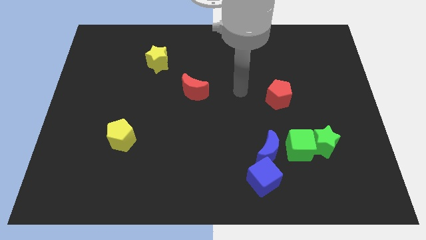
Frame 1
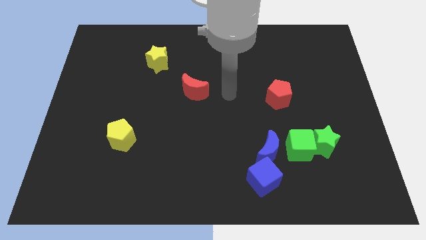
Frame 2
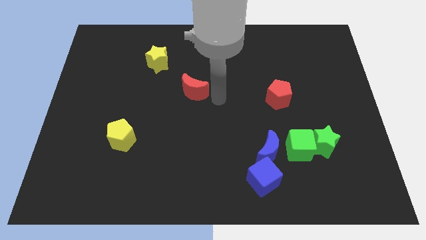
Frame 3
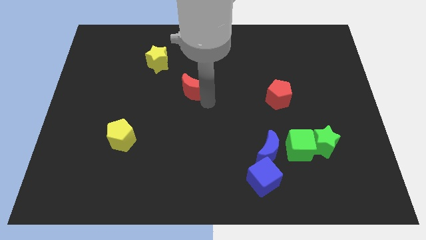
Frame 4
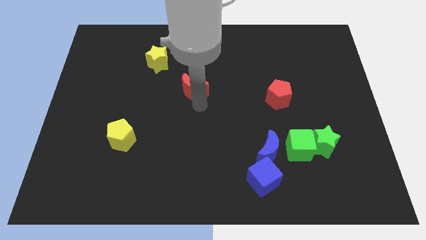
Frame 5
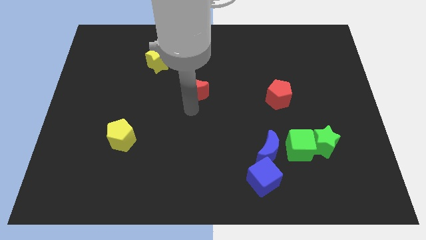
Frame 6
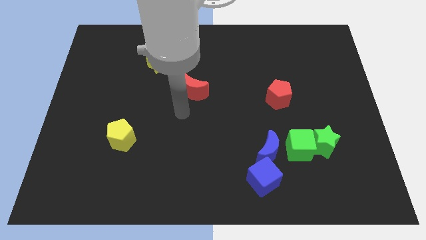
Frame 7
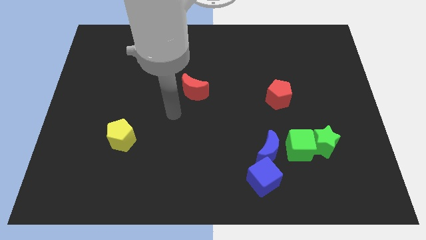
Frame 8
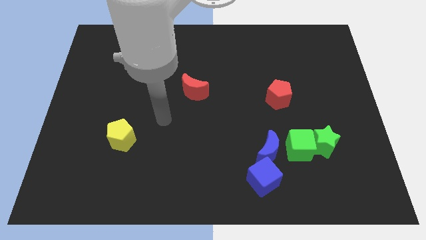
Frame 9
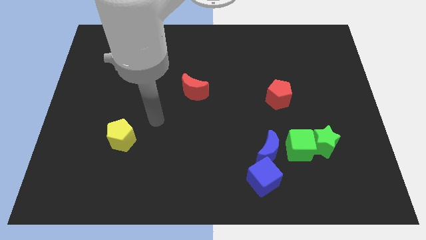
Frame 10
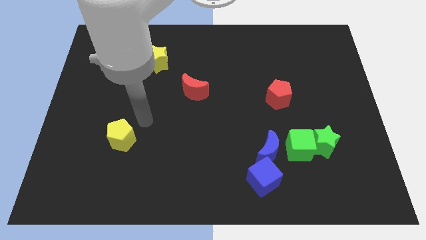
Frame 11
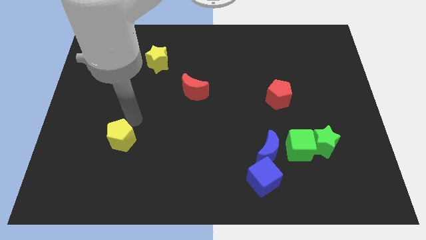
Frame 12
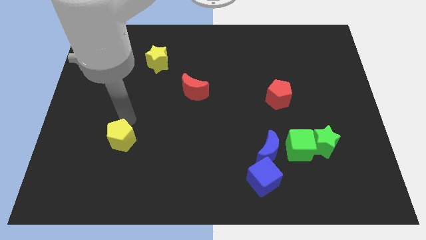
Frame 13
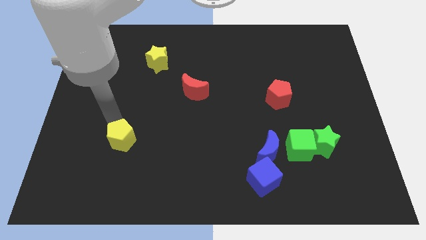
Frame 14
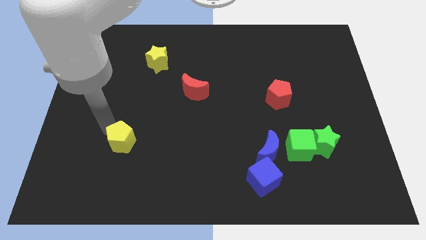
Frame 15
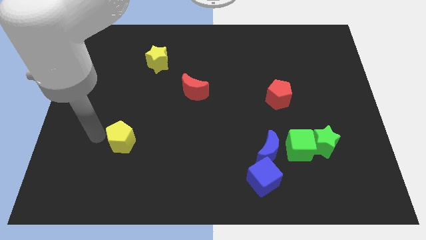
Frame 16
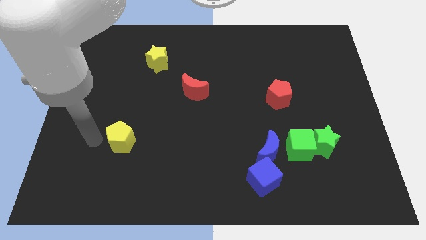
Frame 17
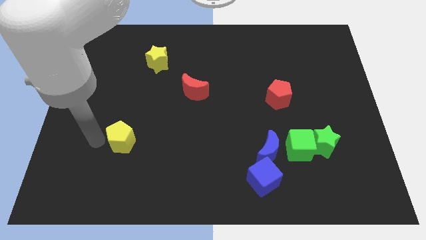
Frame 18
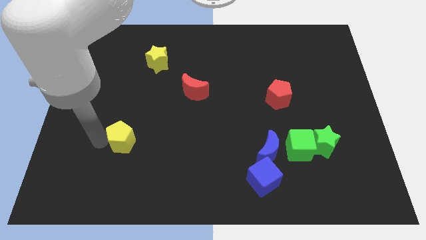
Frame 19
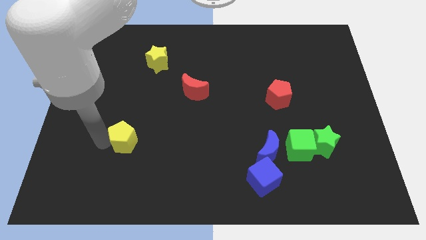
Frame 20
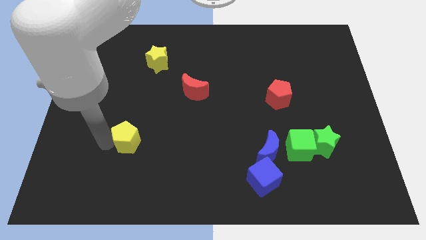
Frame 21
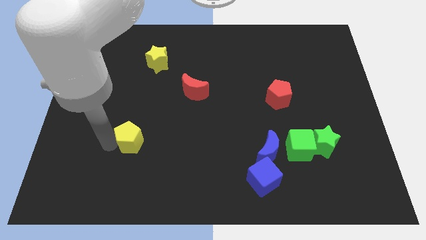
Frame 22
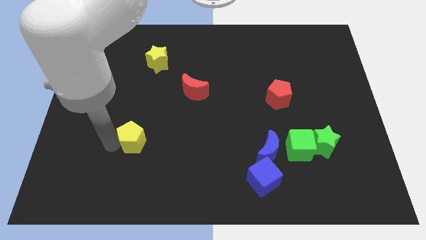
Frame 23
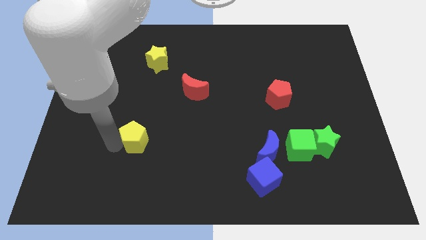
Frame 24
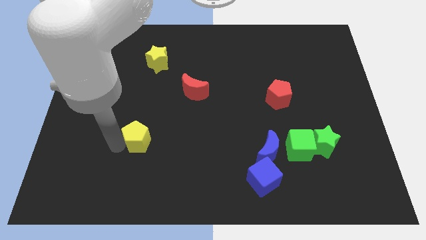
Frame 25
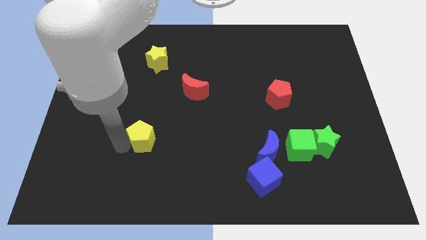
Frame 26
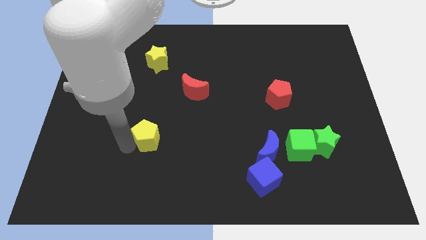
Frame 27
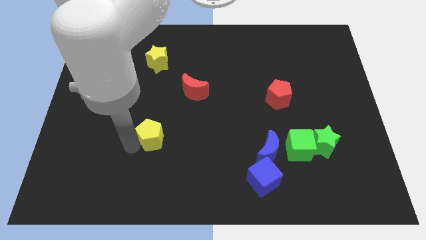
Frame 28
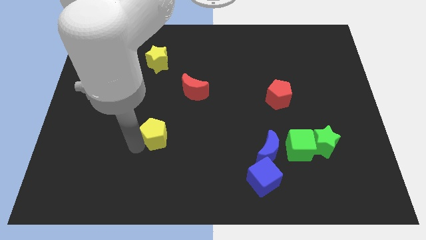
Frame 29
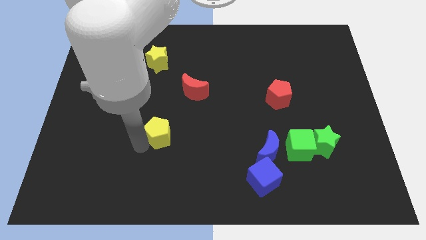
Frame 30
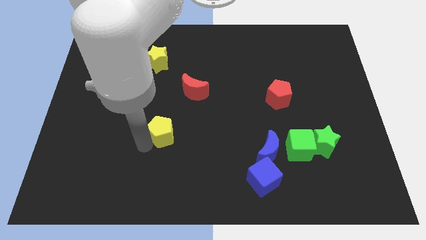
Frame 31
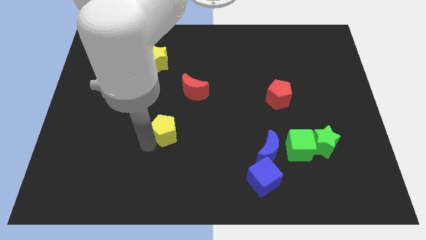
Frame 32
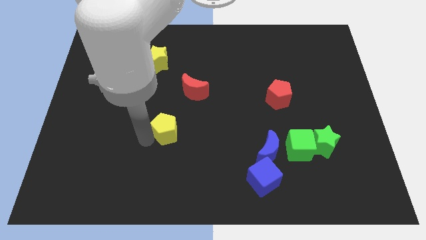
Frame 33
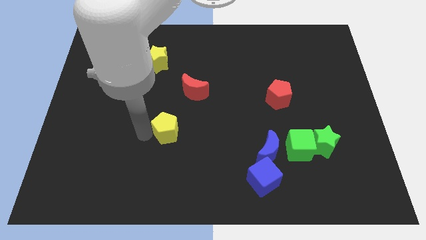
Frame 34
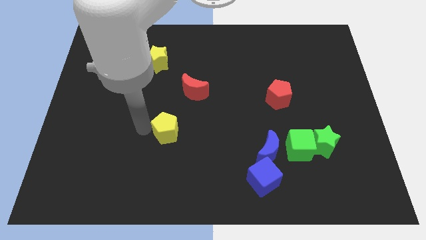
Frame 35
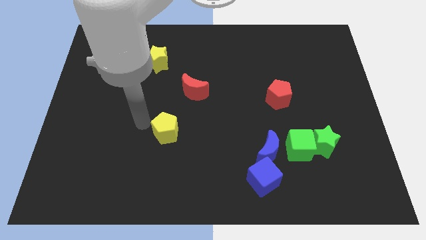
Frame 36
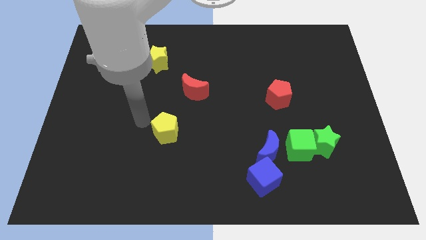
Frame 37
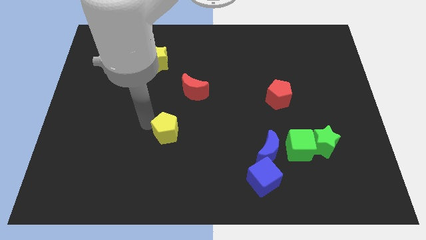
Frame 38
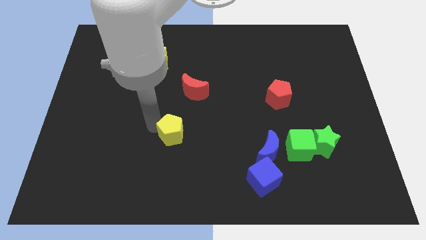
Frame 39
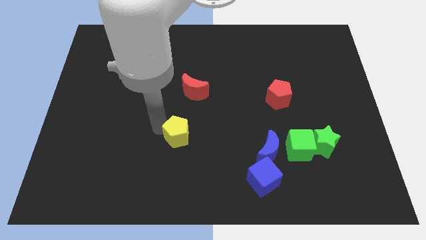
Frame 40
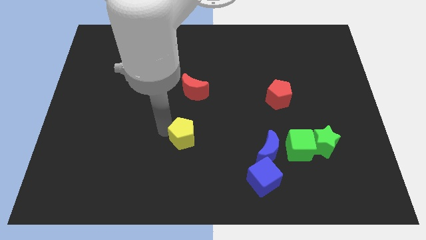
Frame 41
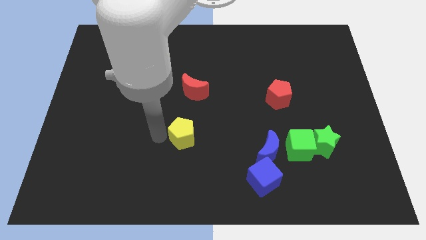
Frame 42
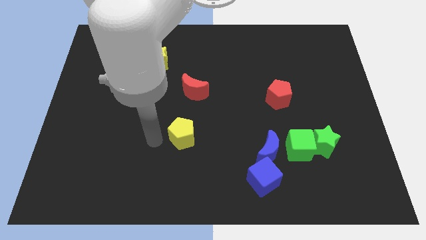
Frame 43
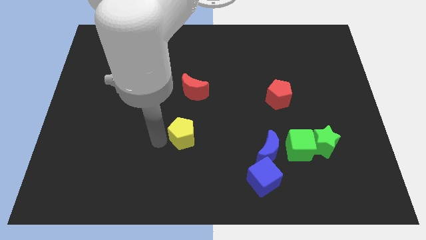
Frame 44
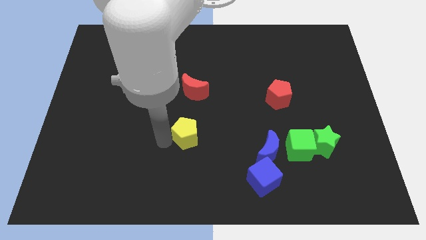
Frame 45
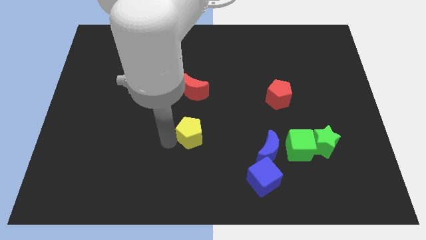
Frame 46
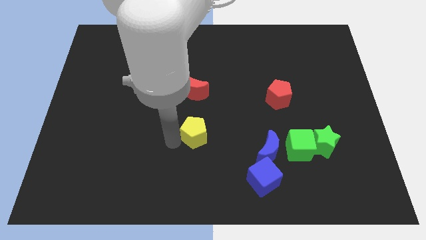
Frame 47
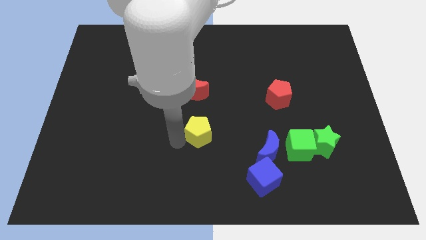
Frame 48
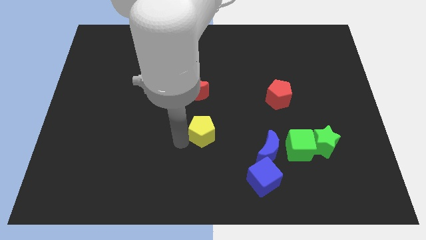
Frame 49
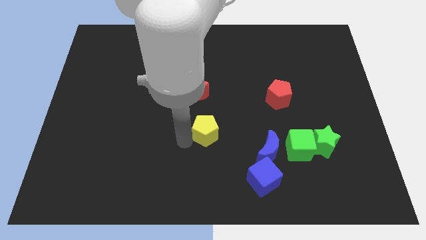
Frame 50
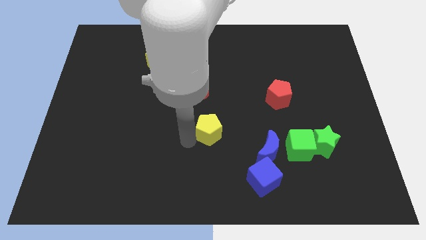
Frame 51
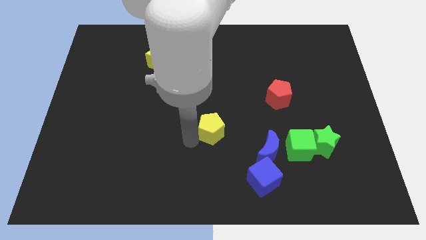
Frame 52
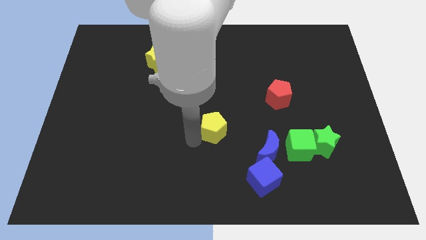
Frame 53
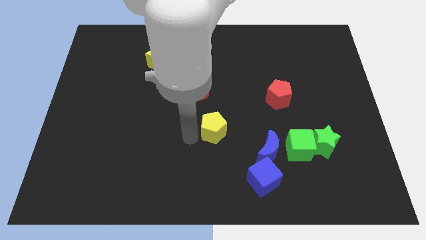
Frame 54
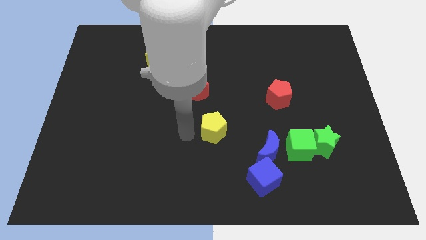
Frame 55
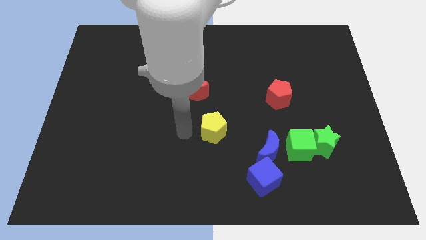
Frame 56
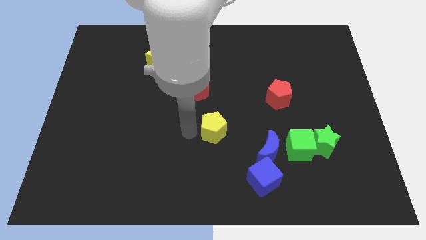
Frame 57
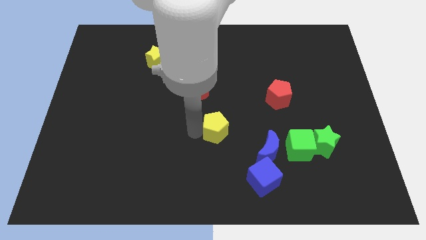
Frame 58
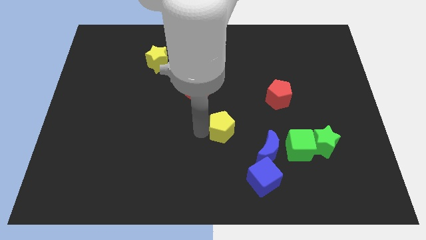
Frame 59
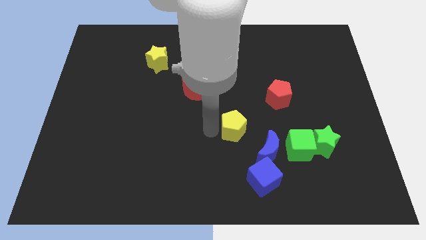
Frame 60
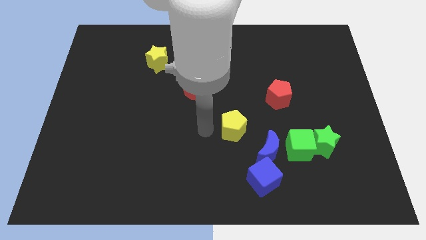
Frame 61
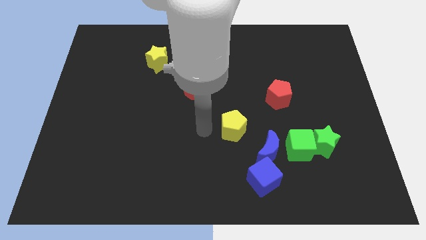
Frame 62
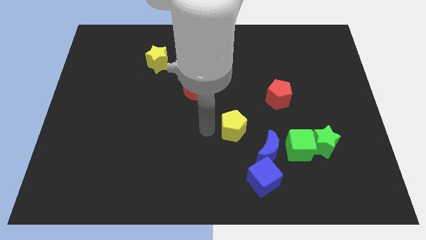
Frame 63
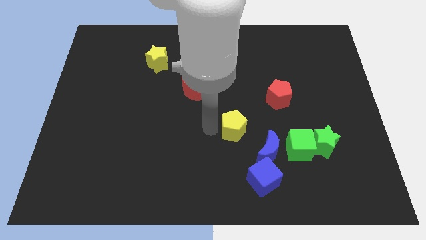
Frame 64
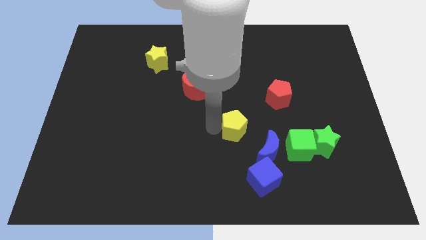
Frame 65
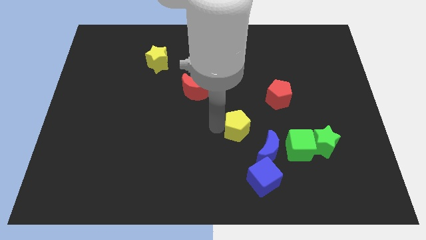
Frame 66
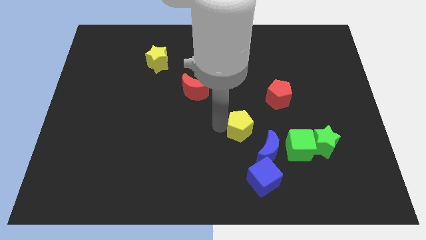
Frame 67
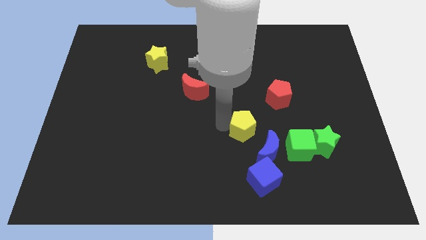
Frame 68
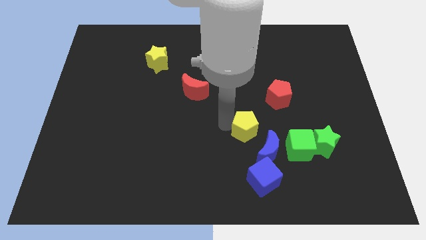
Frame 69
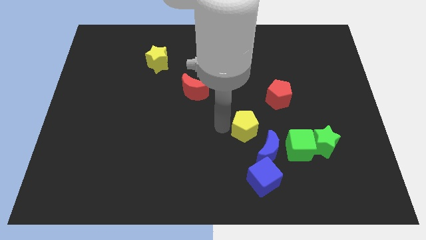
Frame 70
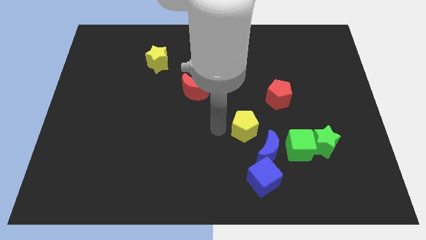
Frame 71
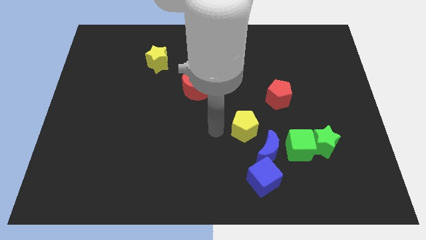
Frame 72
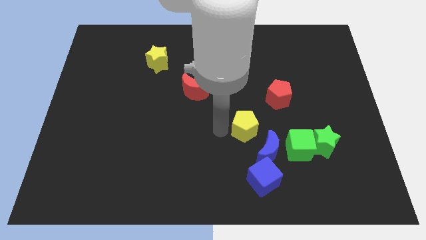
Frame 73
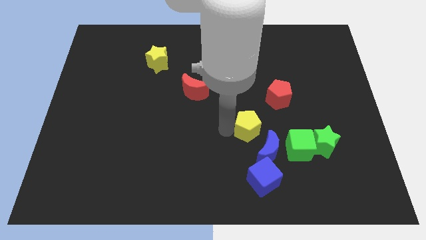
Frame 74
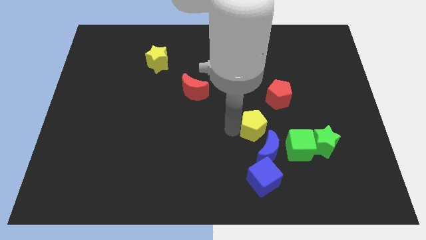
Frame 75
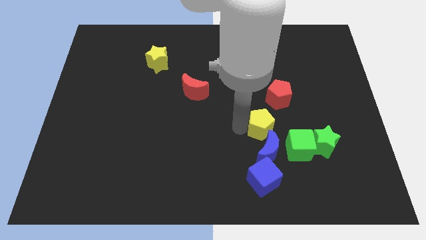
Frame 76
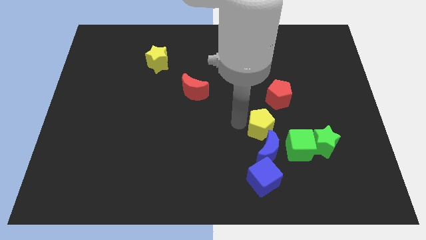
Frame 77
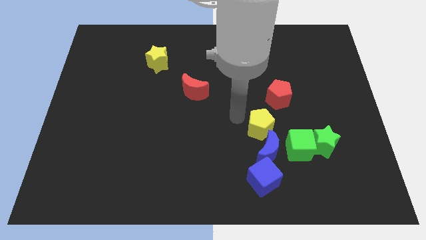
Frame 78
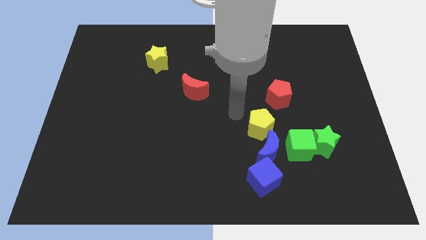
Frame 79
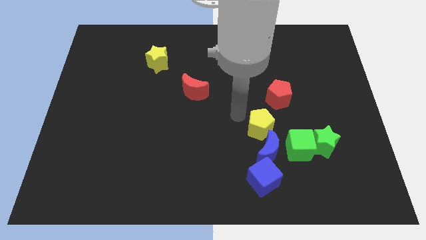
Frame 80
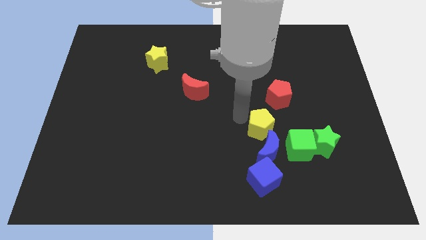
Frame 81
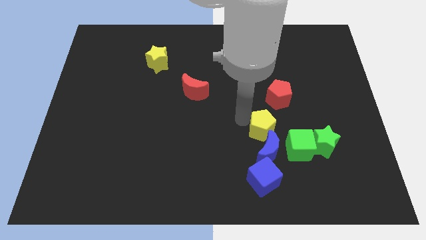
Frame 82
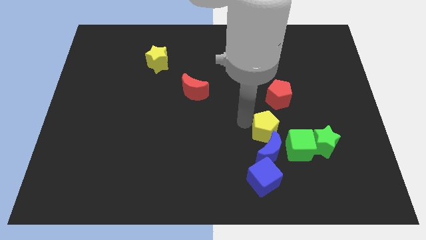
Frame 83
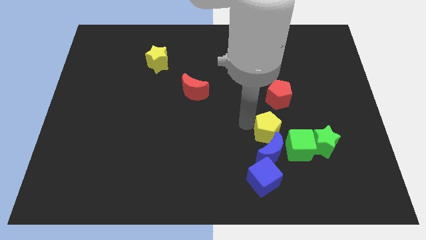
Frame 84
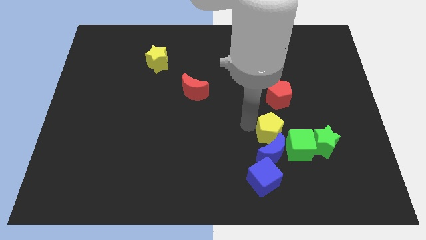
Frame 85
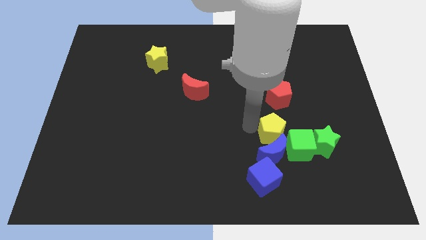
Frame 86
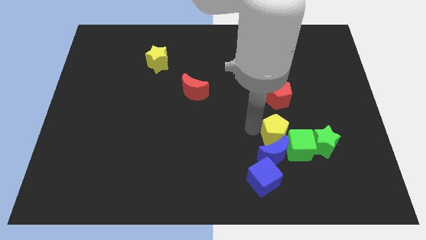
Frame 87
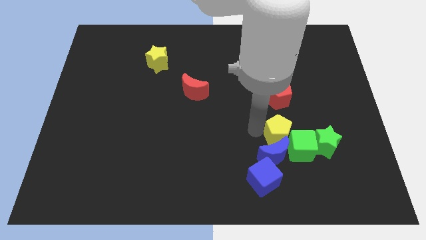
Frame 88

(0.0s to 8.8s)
move the yellow pentagon next to the green cube
